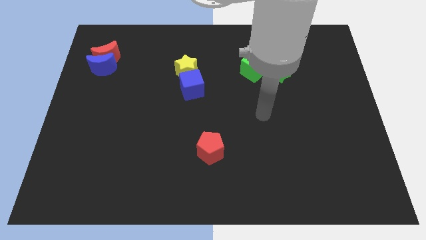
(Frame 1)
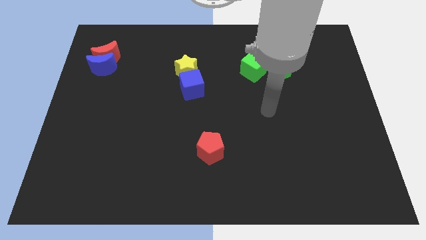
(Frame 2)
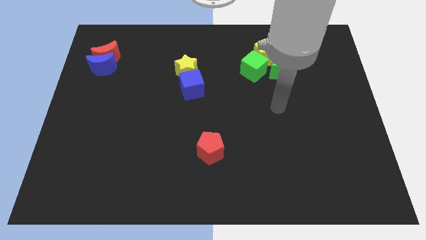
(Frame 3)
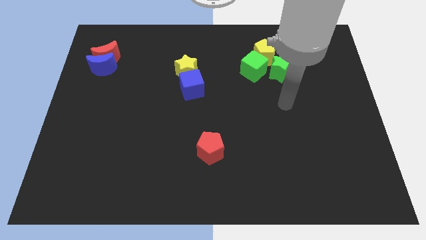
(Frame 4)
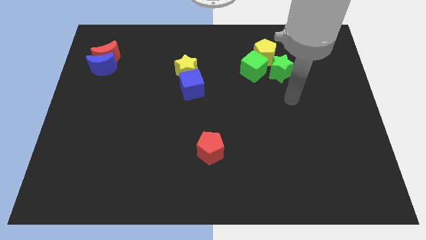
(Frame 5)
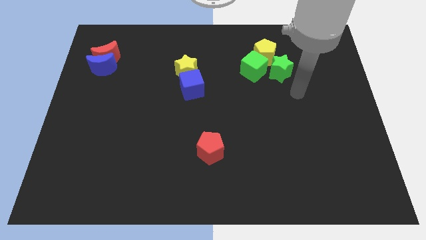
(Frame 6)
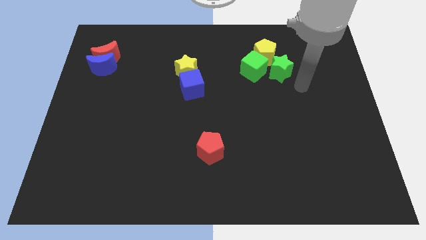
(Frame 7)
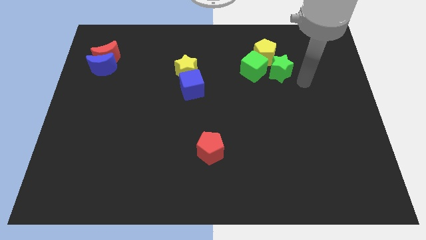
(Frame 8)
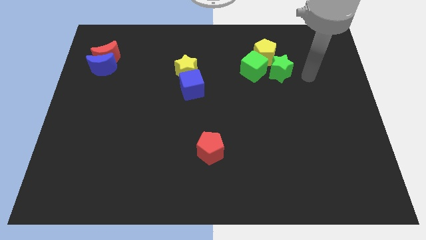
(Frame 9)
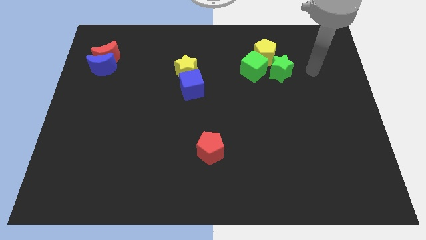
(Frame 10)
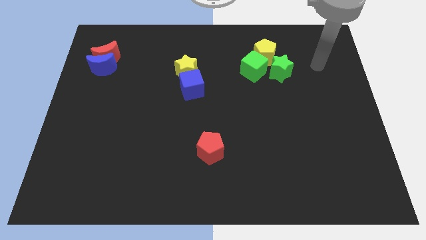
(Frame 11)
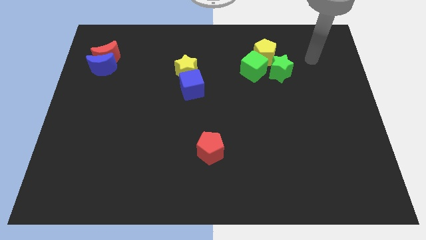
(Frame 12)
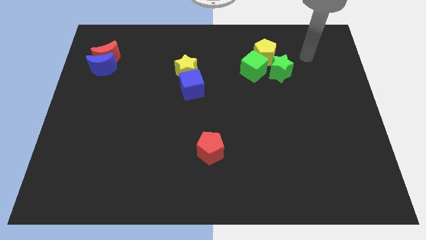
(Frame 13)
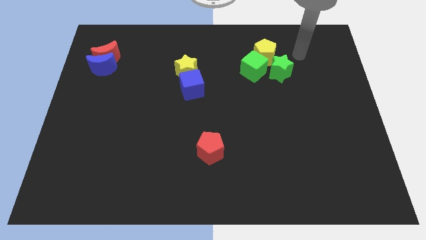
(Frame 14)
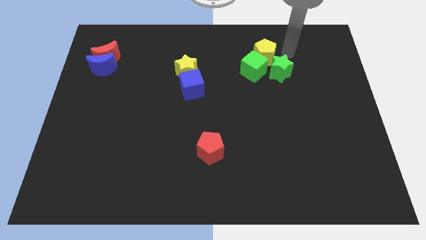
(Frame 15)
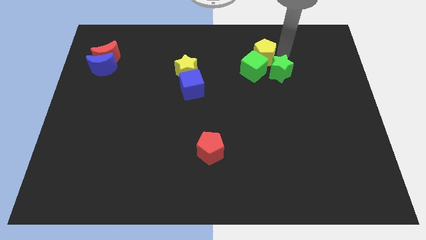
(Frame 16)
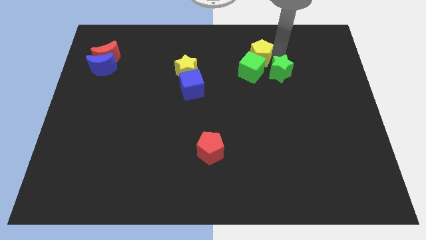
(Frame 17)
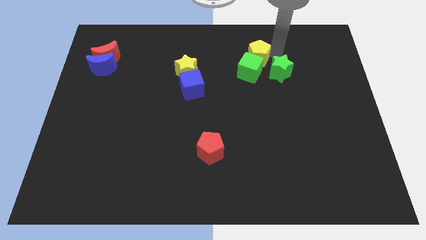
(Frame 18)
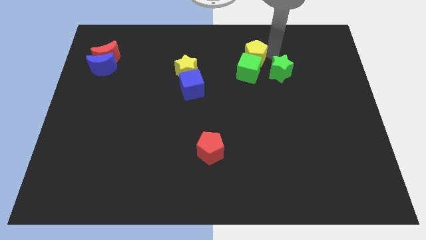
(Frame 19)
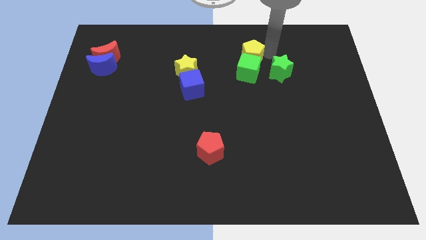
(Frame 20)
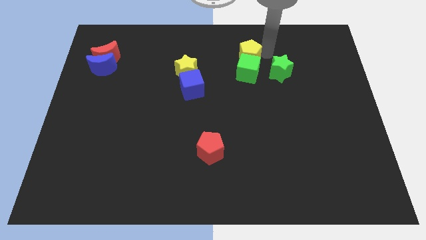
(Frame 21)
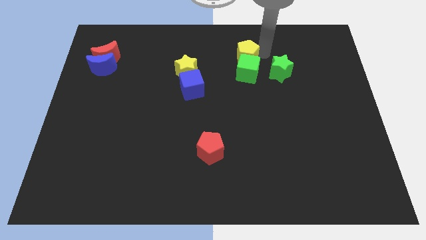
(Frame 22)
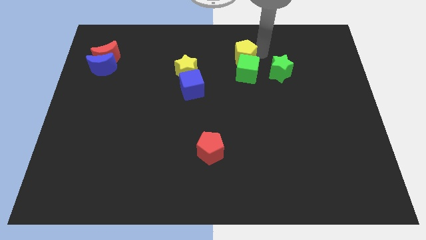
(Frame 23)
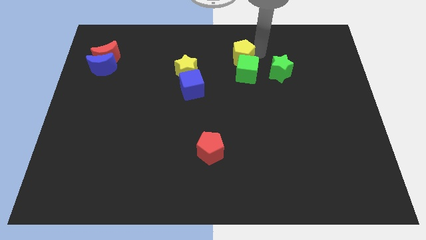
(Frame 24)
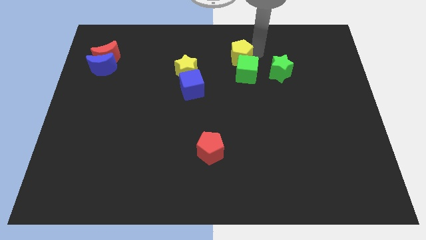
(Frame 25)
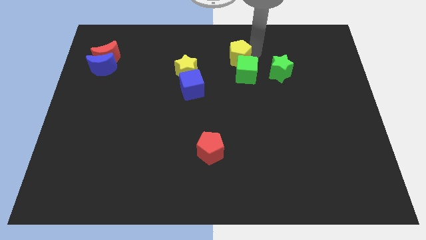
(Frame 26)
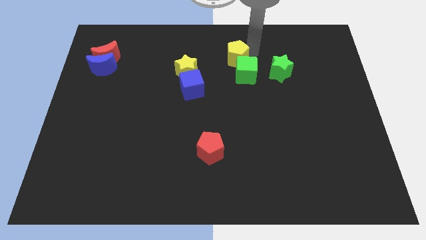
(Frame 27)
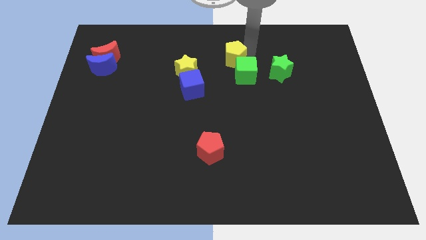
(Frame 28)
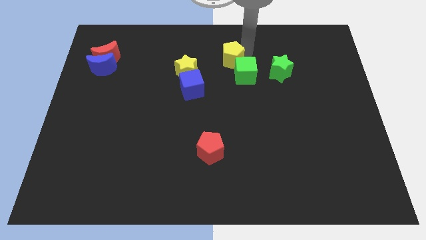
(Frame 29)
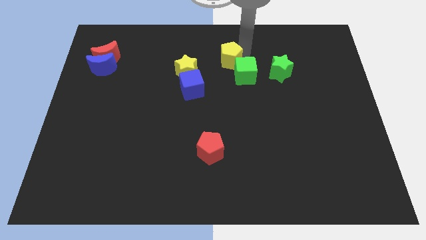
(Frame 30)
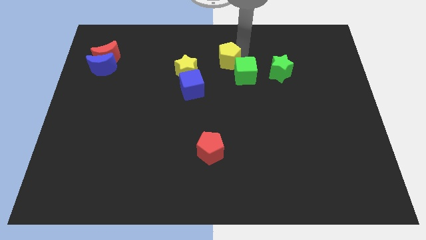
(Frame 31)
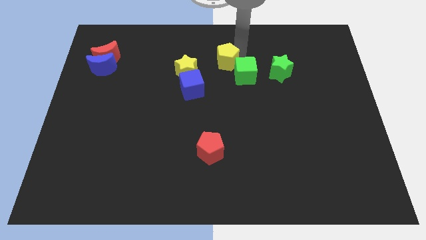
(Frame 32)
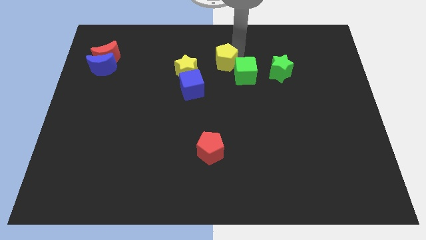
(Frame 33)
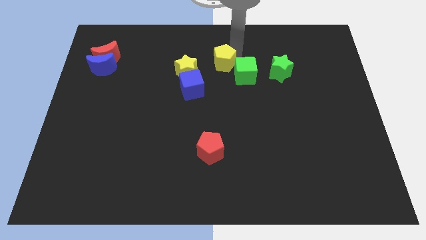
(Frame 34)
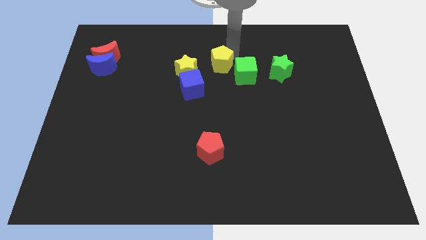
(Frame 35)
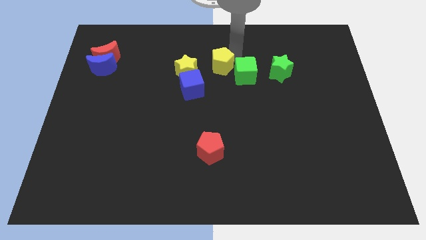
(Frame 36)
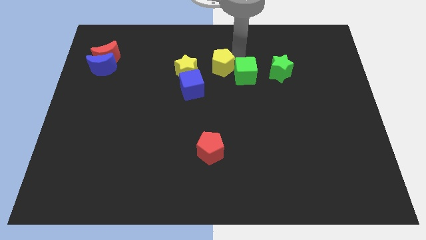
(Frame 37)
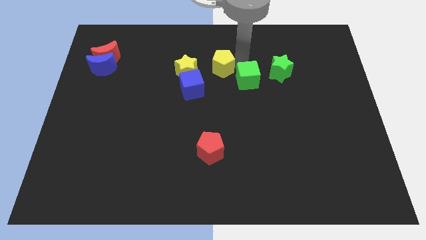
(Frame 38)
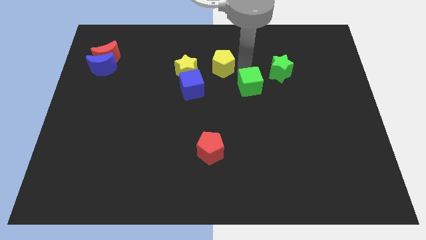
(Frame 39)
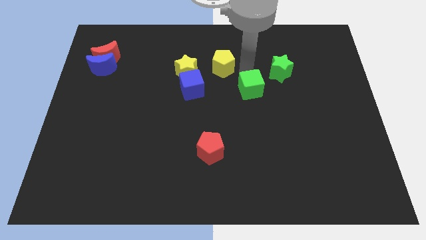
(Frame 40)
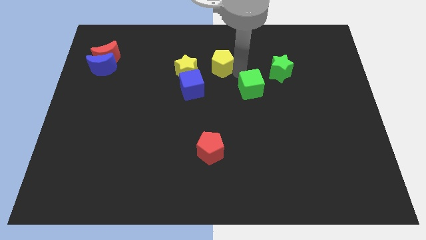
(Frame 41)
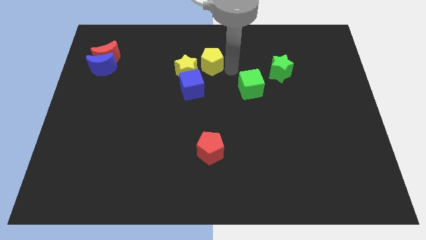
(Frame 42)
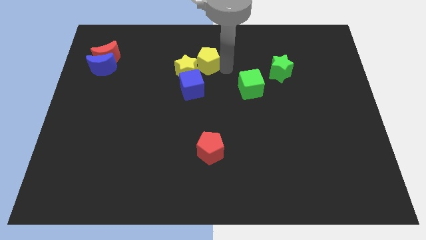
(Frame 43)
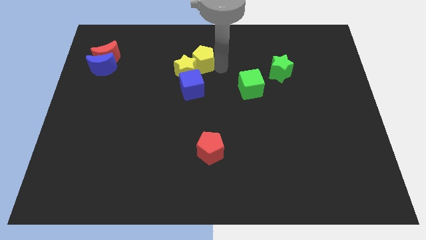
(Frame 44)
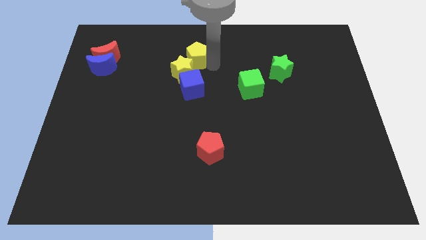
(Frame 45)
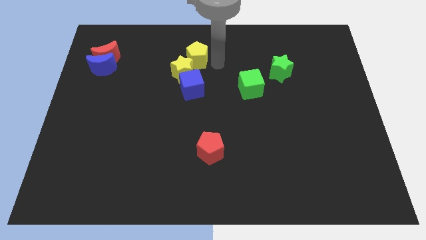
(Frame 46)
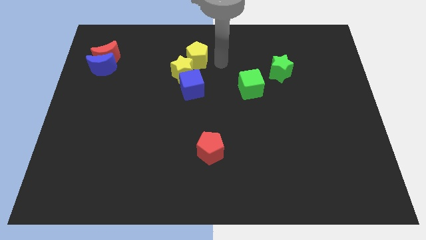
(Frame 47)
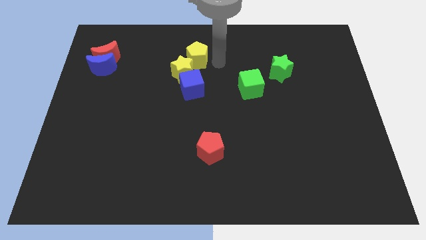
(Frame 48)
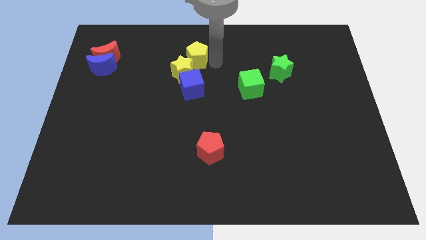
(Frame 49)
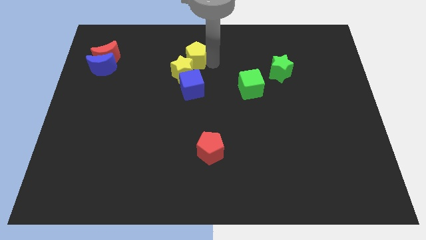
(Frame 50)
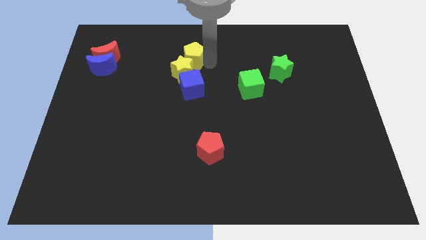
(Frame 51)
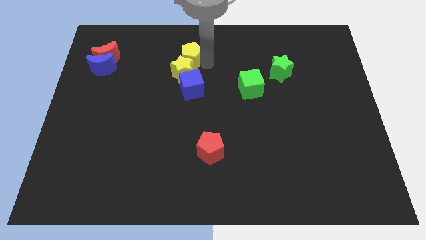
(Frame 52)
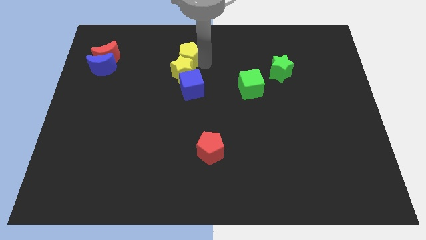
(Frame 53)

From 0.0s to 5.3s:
slide the yellow pentagon to the left

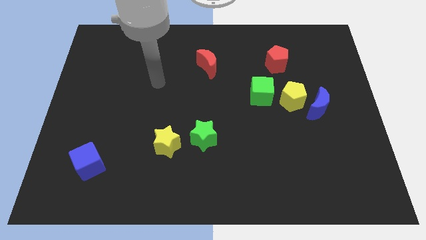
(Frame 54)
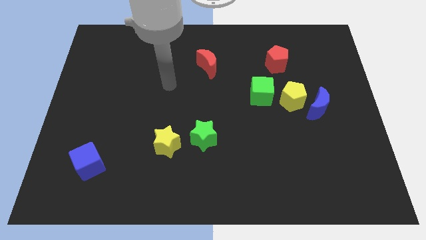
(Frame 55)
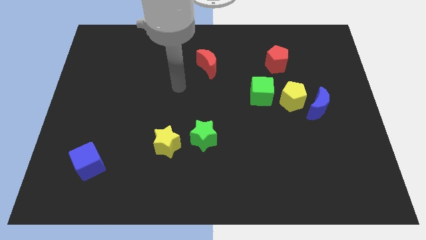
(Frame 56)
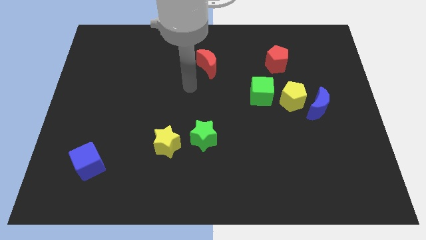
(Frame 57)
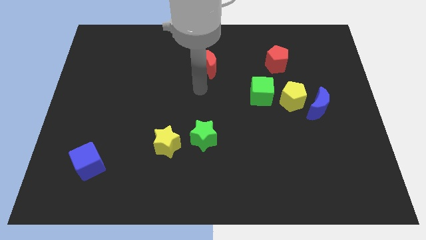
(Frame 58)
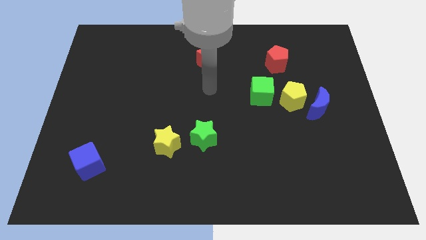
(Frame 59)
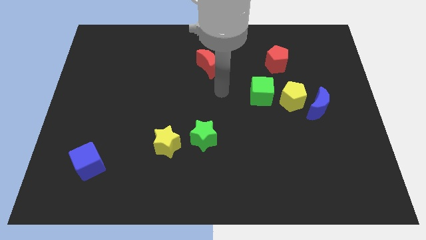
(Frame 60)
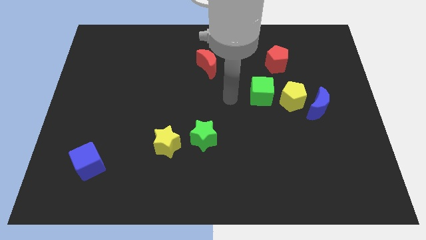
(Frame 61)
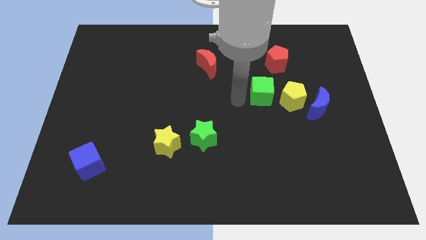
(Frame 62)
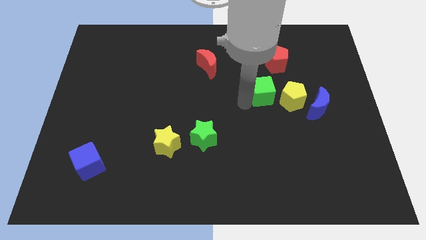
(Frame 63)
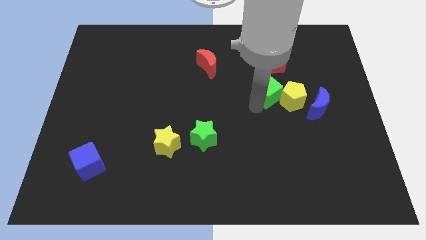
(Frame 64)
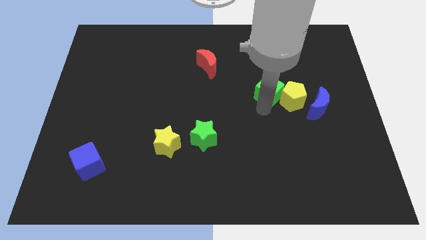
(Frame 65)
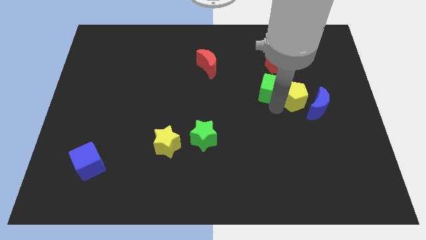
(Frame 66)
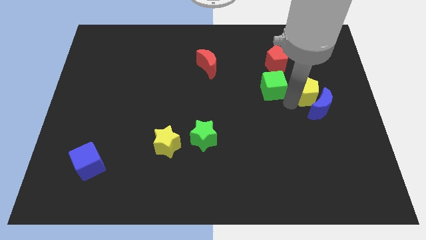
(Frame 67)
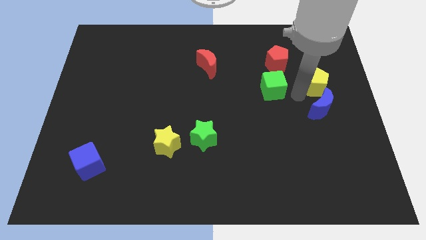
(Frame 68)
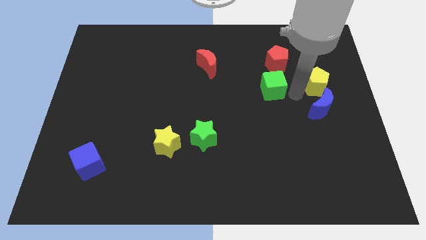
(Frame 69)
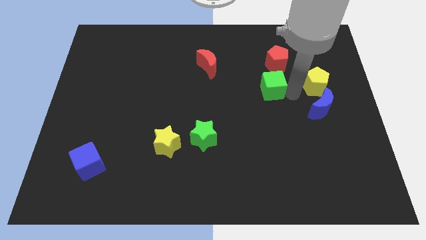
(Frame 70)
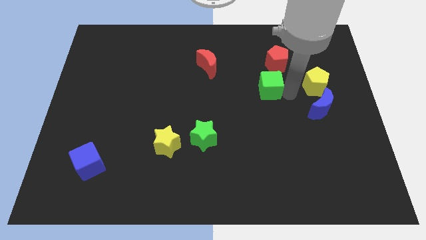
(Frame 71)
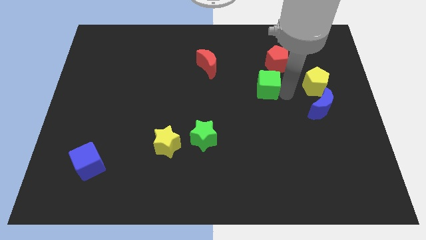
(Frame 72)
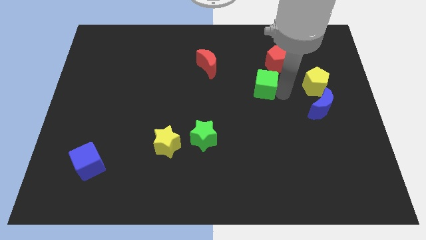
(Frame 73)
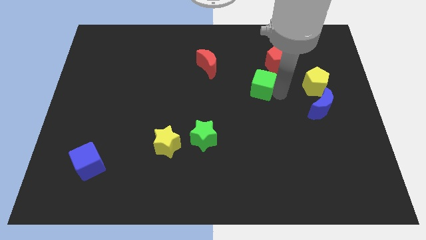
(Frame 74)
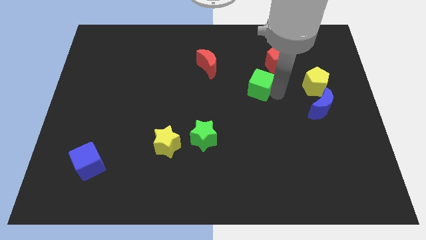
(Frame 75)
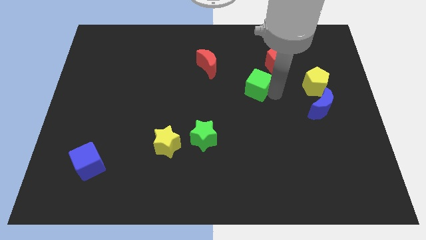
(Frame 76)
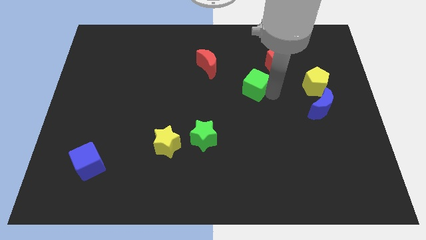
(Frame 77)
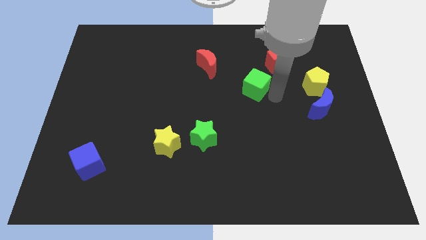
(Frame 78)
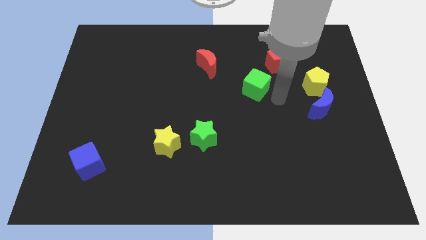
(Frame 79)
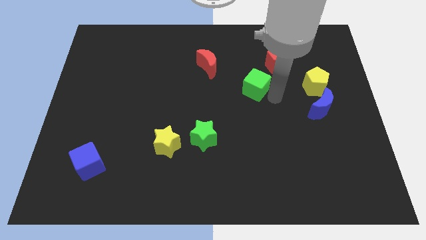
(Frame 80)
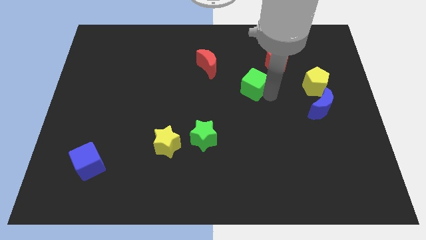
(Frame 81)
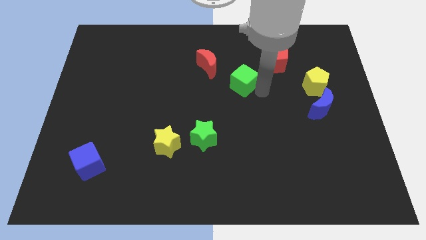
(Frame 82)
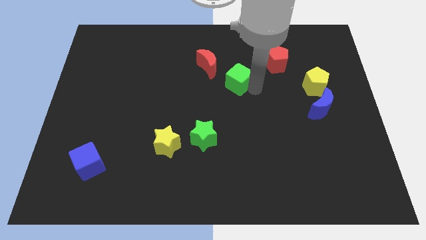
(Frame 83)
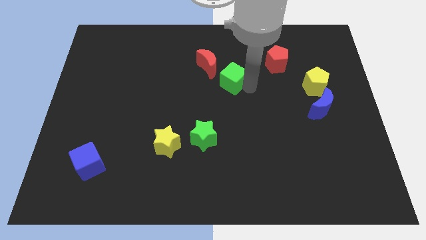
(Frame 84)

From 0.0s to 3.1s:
move the green cube a bit upwards and left
